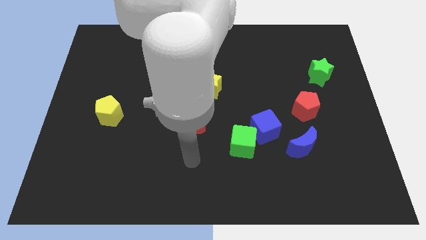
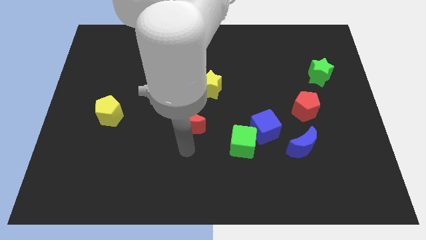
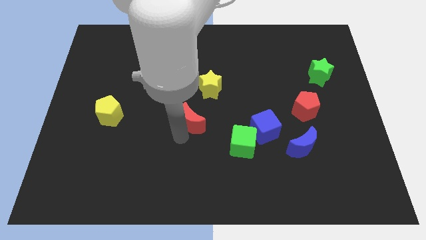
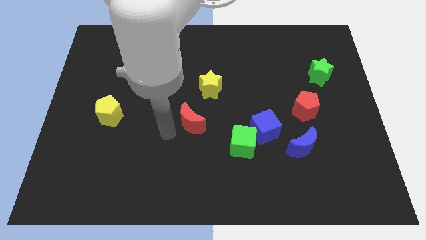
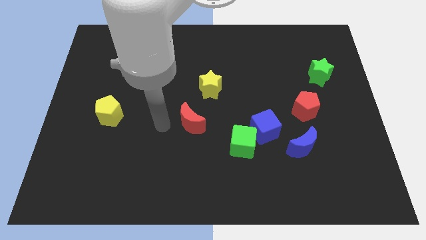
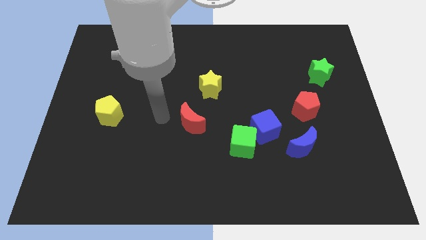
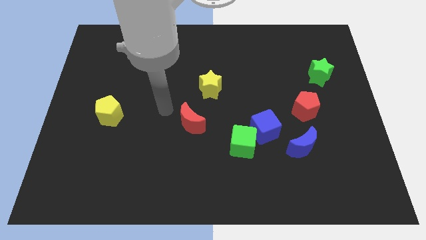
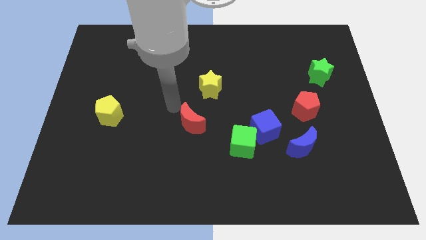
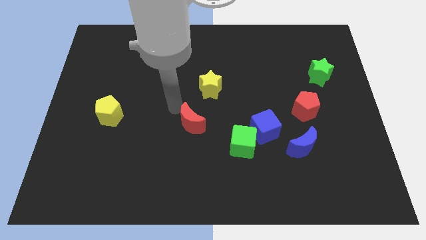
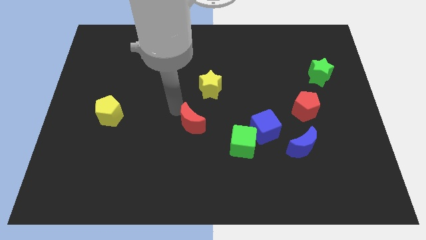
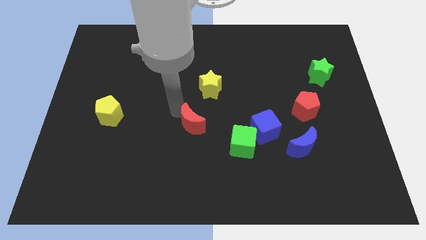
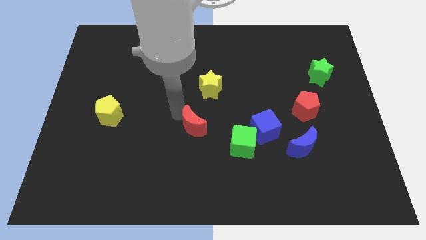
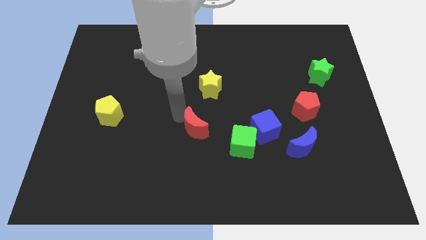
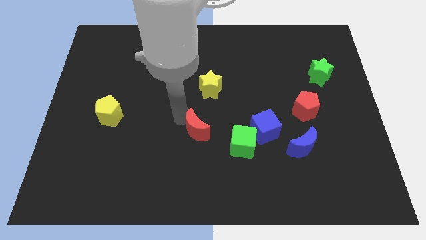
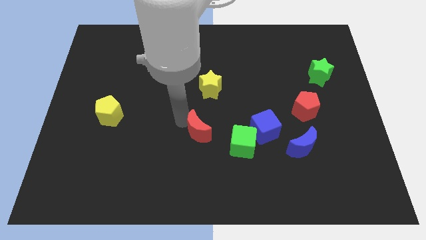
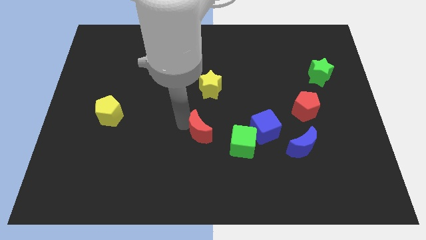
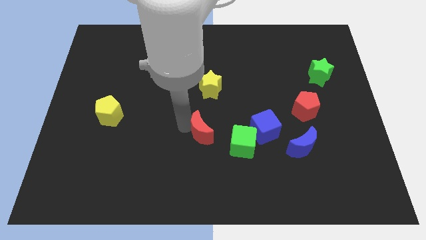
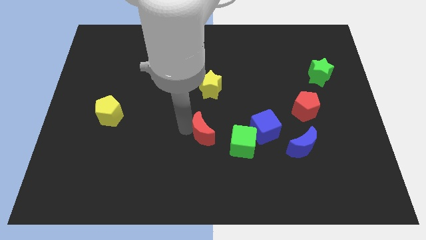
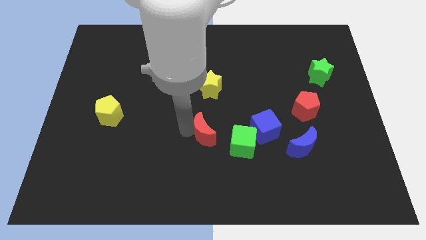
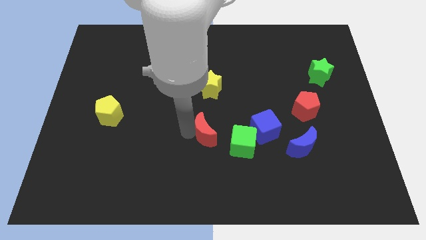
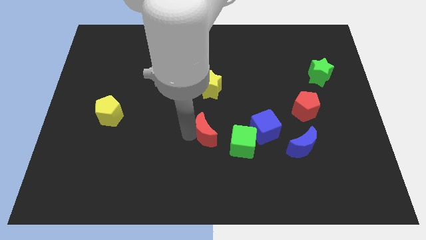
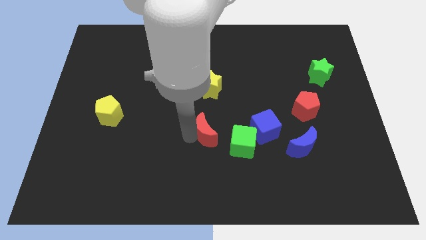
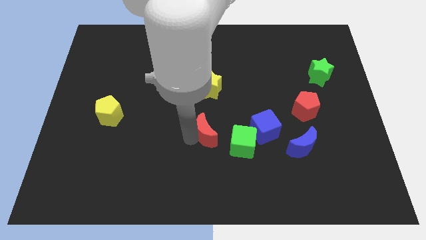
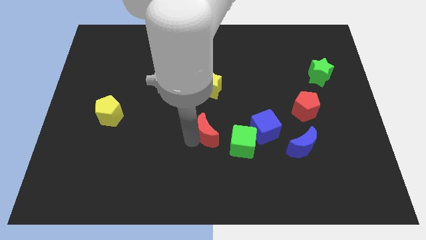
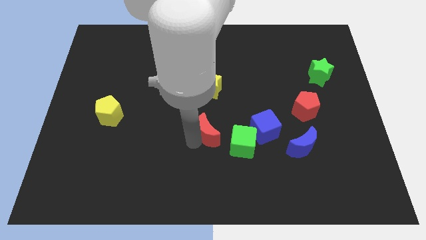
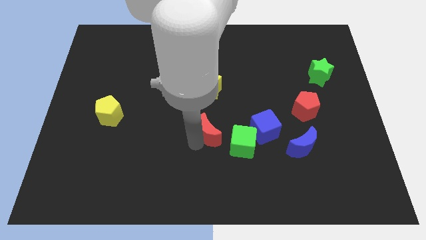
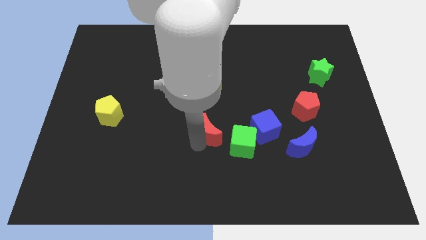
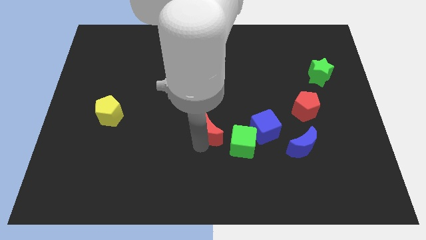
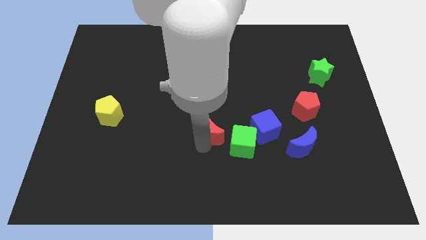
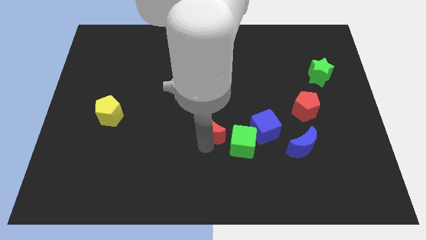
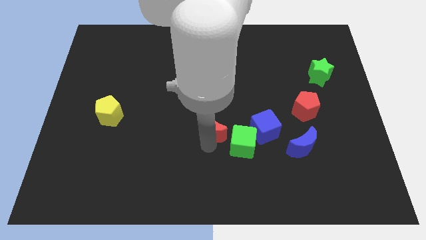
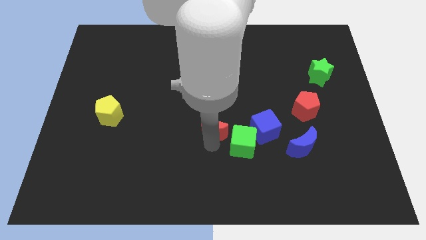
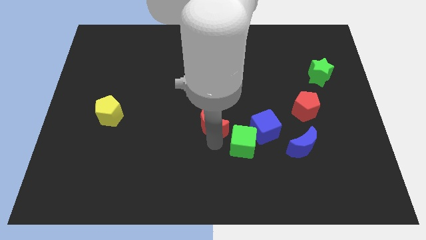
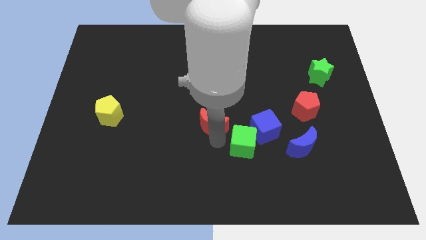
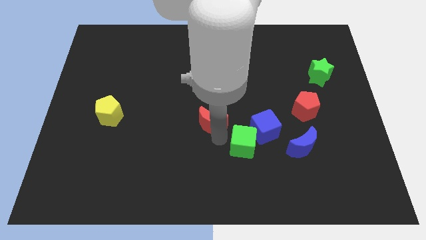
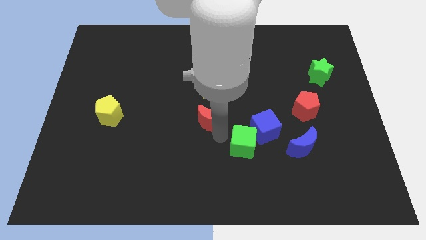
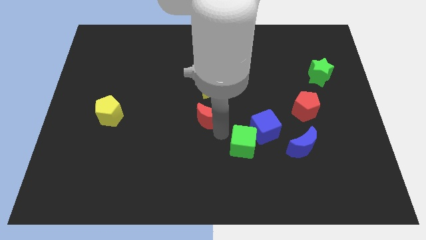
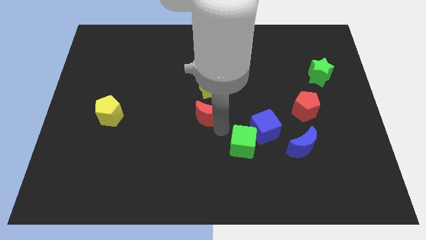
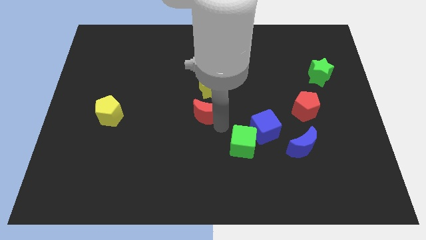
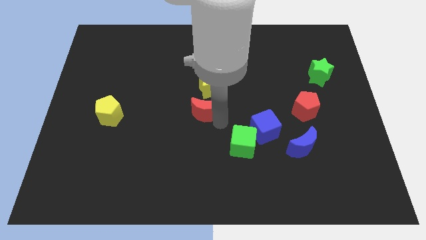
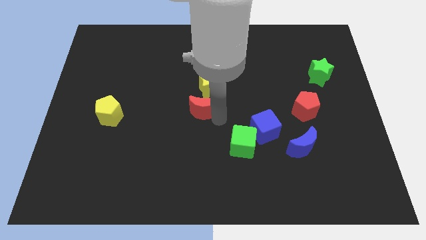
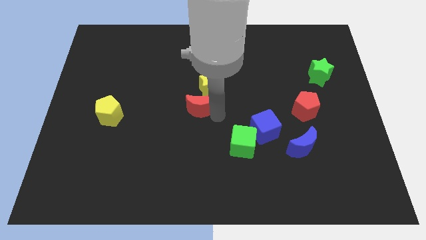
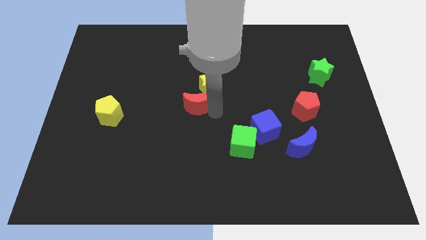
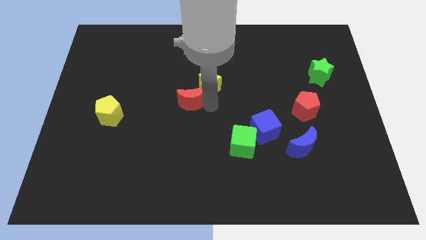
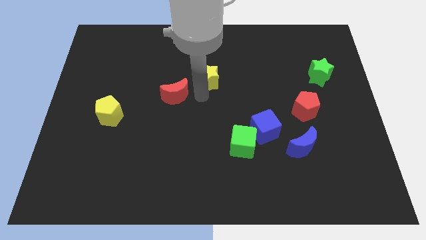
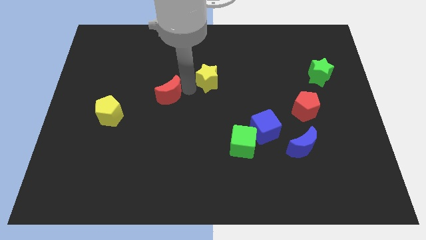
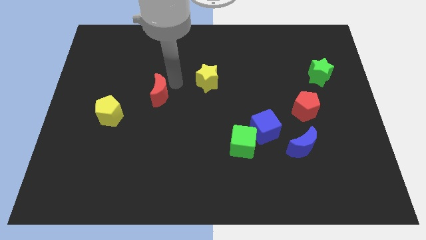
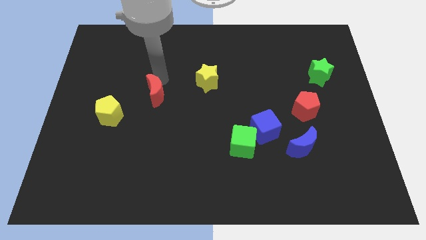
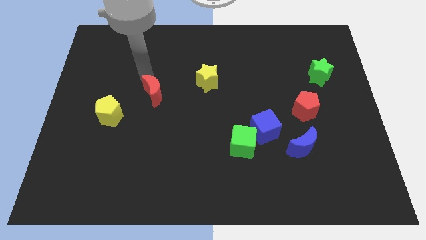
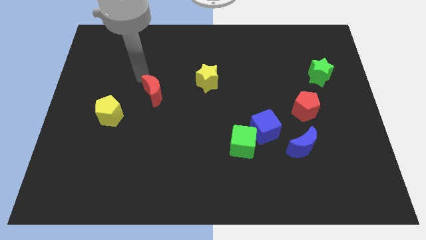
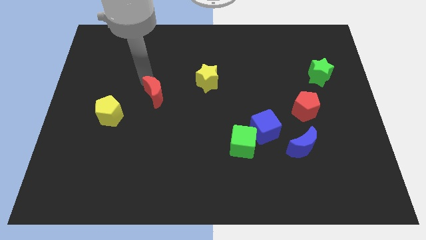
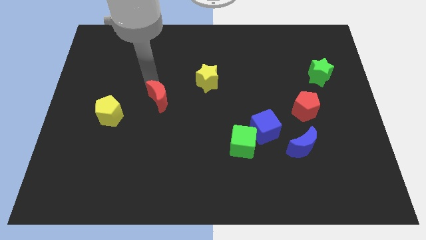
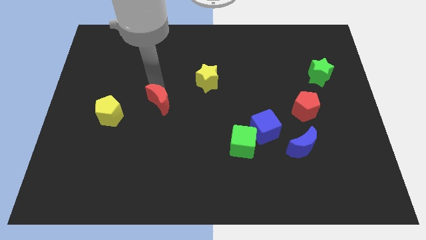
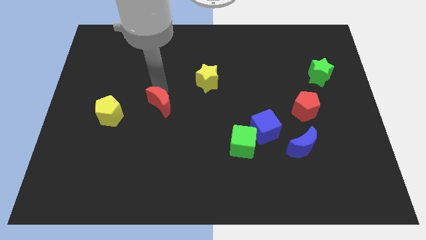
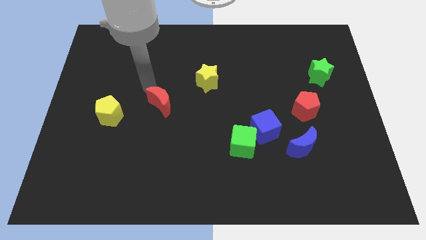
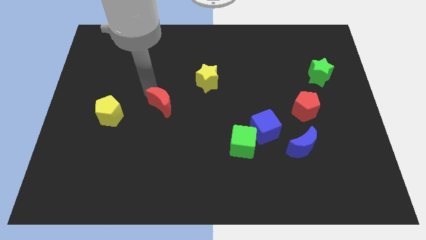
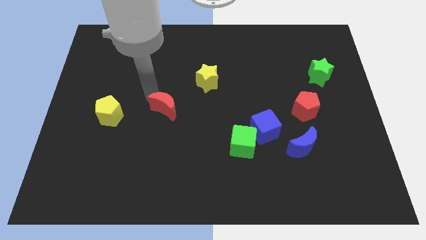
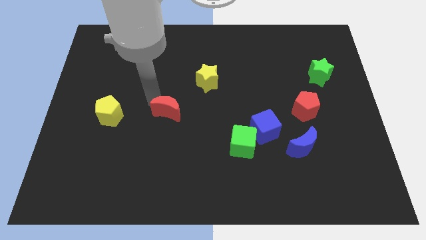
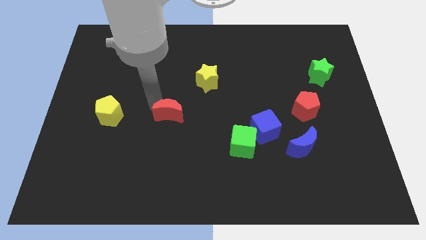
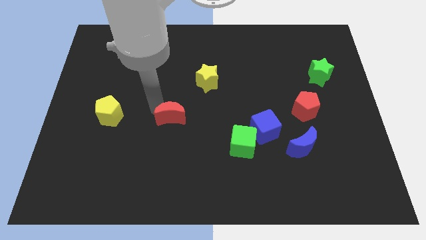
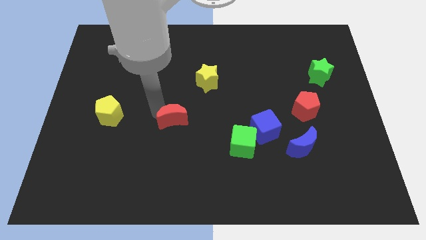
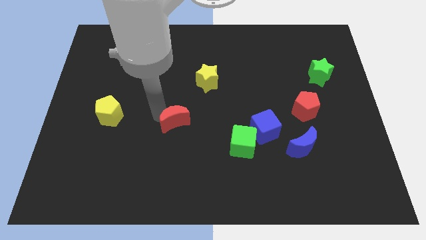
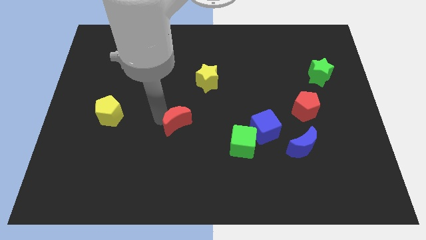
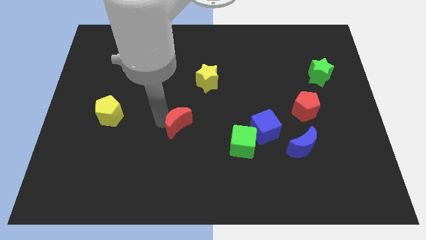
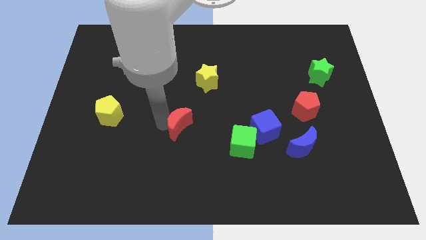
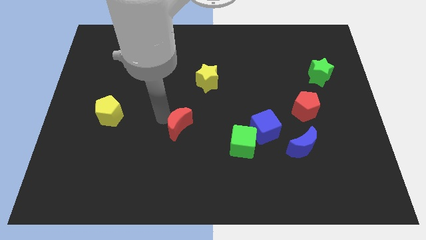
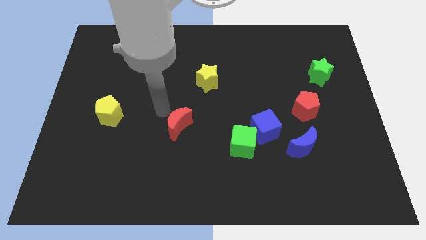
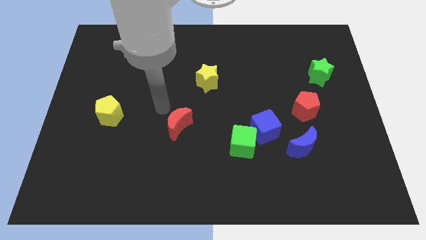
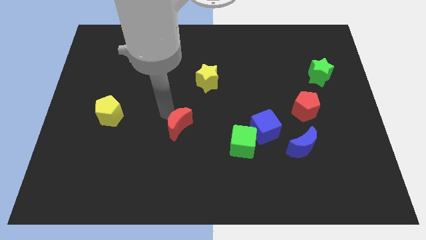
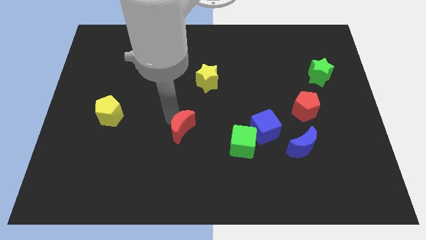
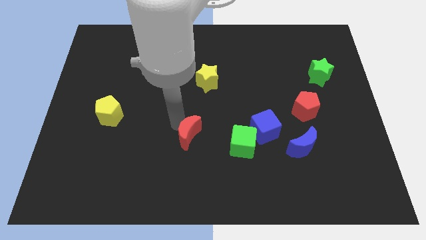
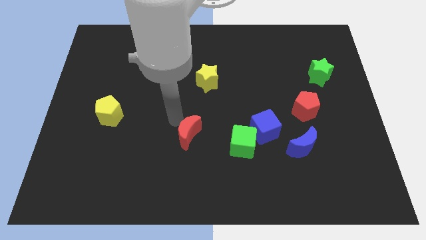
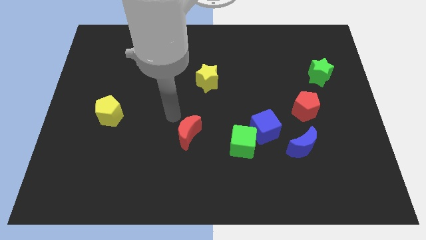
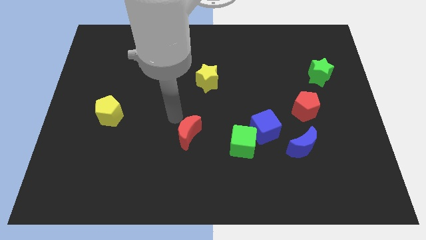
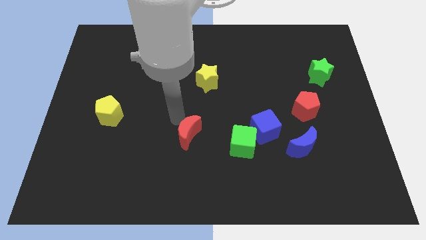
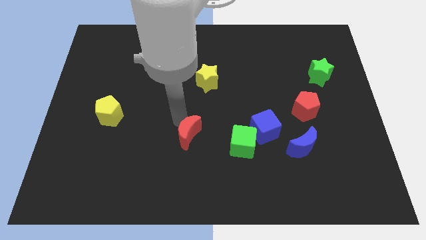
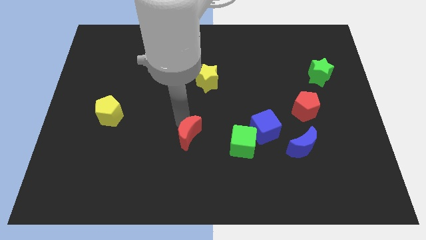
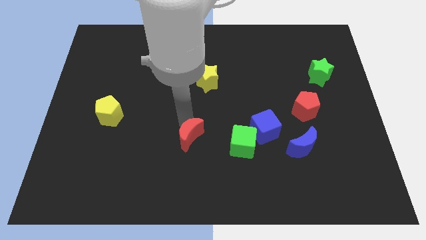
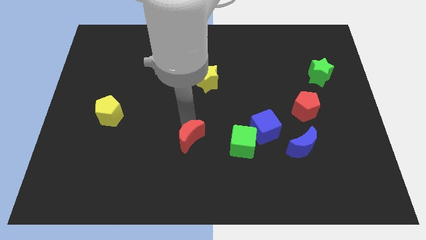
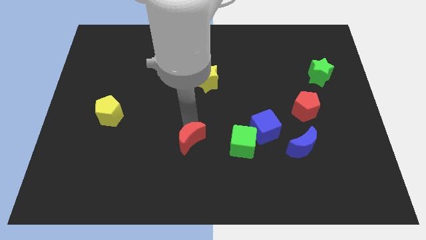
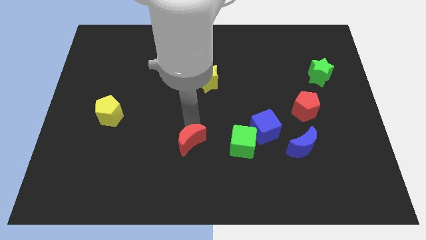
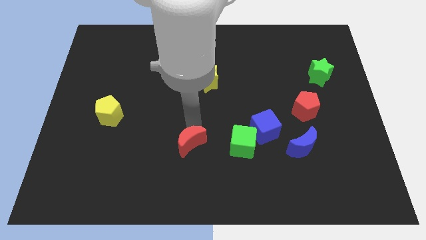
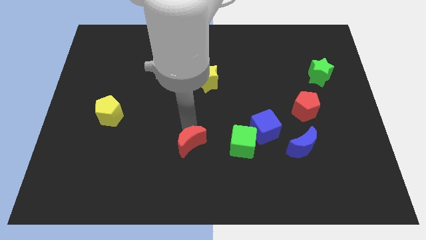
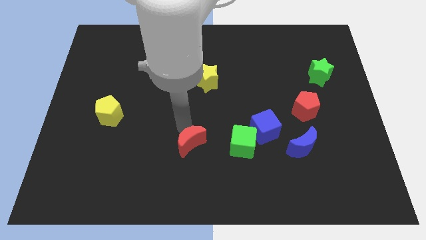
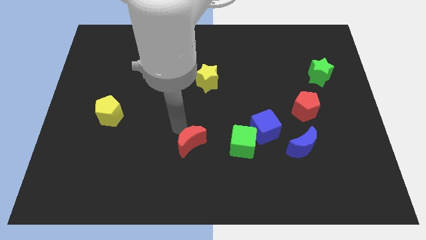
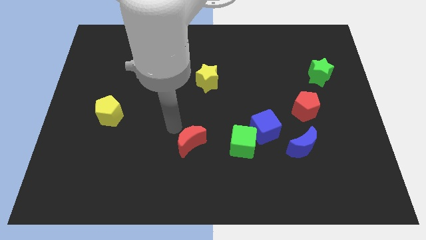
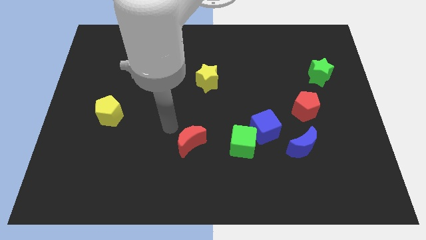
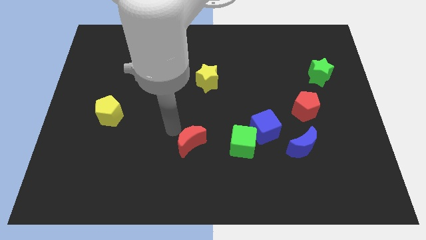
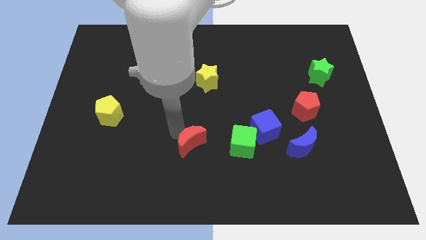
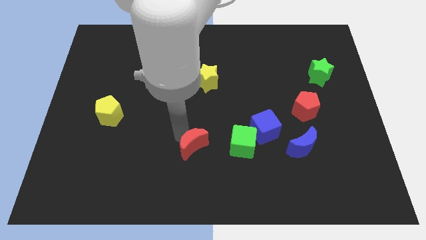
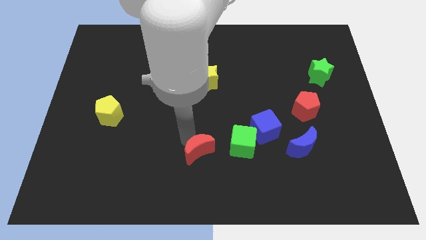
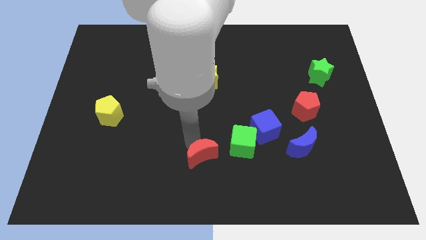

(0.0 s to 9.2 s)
slide the red moon to the bottom
